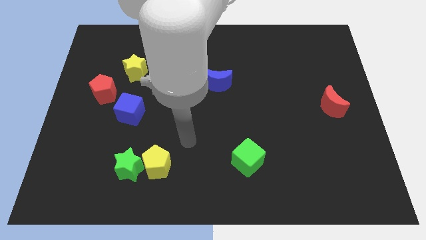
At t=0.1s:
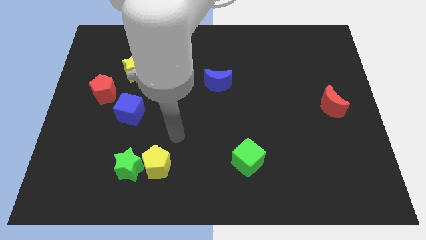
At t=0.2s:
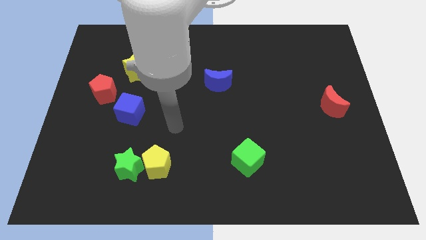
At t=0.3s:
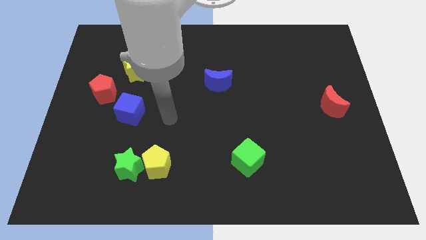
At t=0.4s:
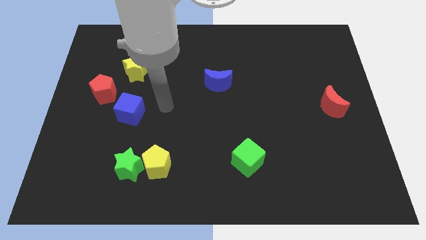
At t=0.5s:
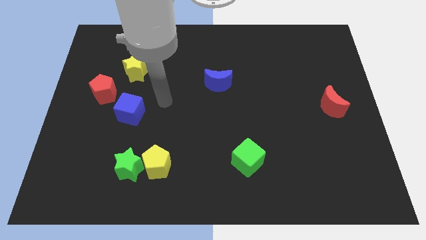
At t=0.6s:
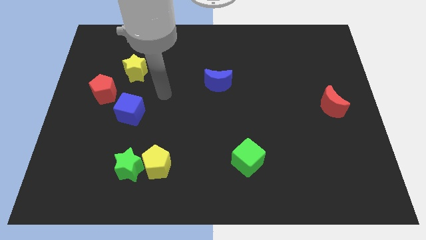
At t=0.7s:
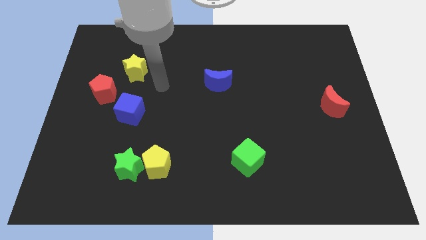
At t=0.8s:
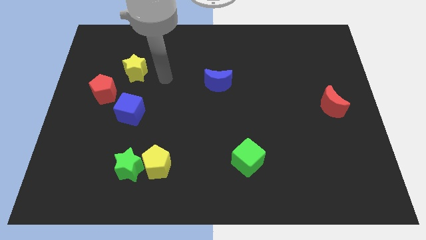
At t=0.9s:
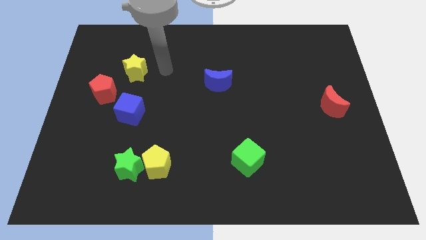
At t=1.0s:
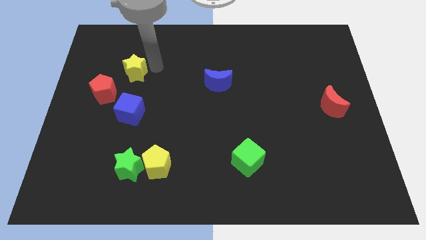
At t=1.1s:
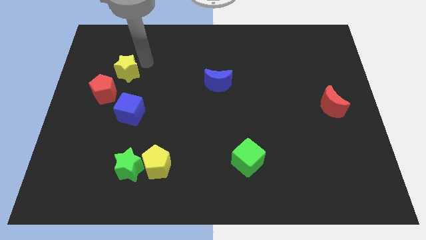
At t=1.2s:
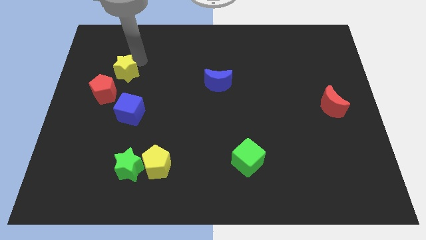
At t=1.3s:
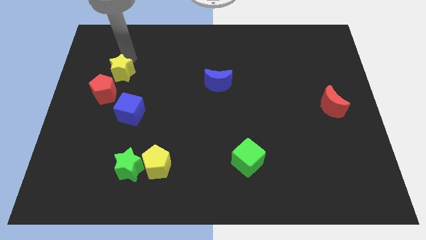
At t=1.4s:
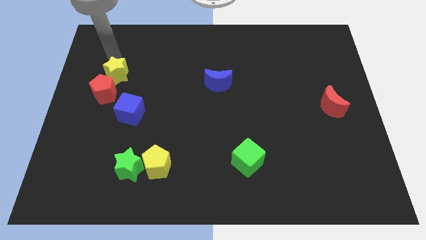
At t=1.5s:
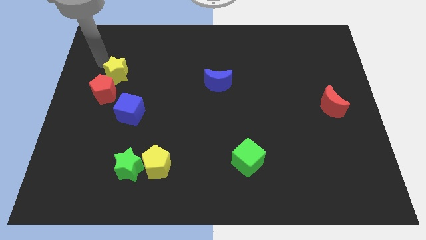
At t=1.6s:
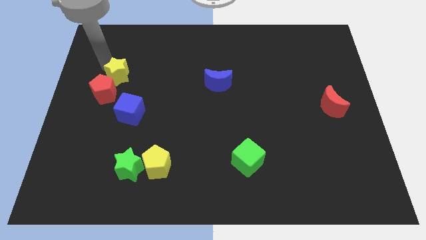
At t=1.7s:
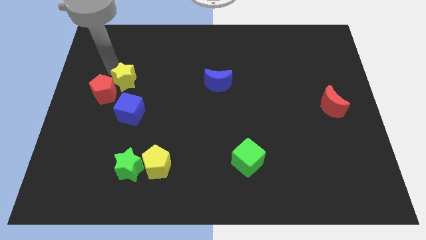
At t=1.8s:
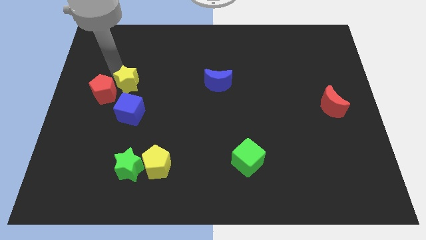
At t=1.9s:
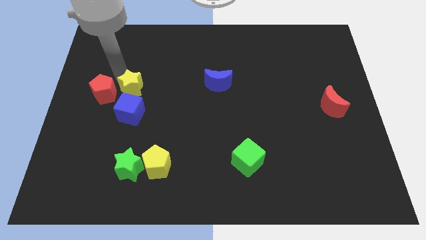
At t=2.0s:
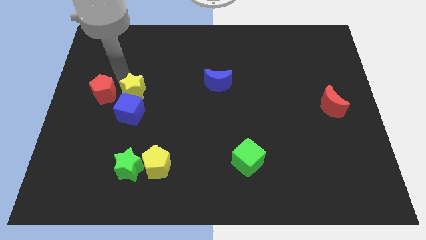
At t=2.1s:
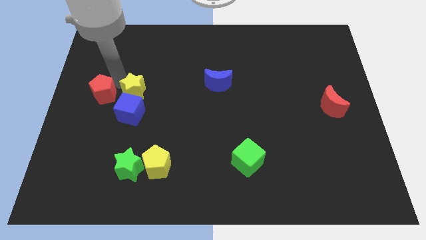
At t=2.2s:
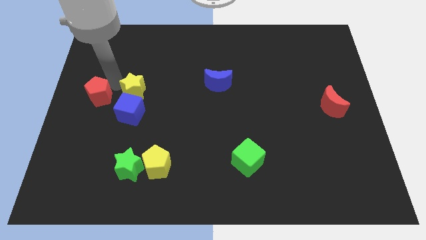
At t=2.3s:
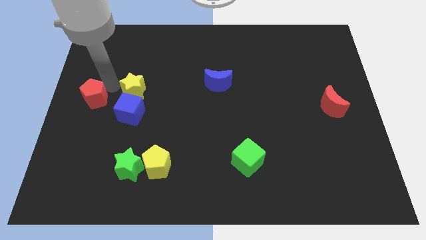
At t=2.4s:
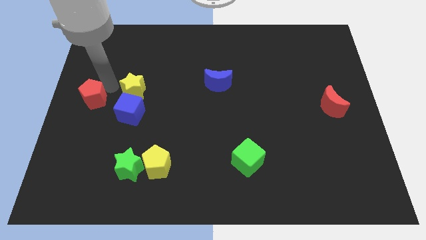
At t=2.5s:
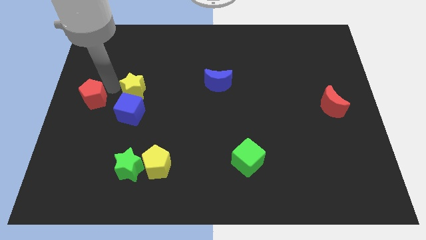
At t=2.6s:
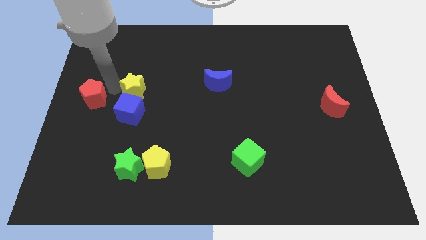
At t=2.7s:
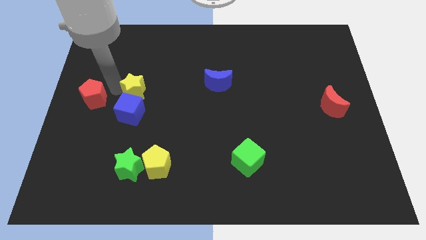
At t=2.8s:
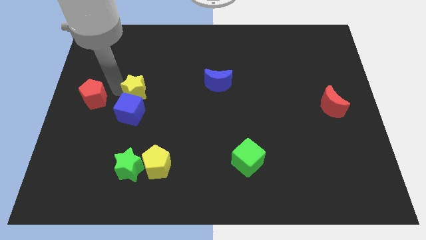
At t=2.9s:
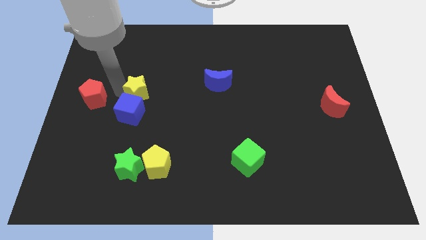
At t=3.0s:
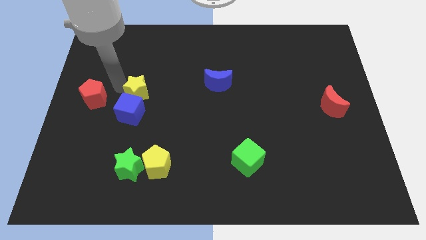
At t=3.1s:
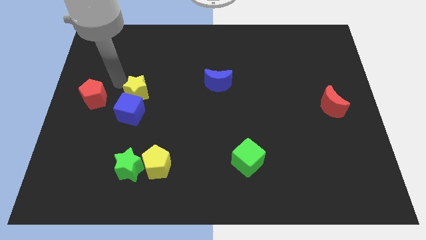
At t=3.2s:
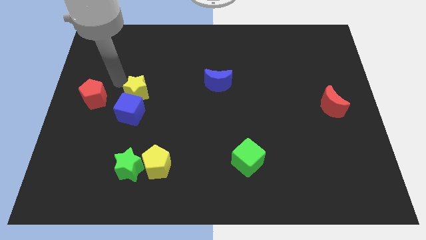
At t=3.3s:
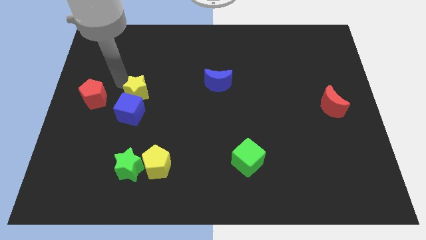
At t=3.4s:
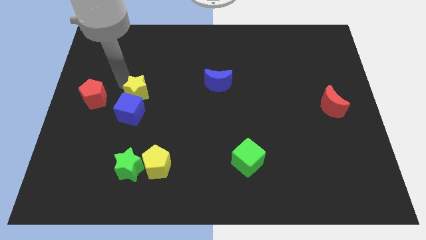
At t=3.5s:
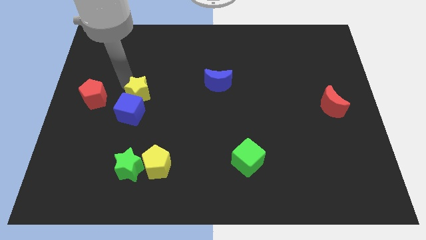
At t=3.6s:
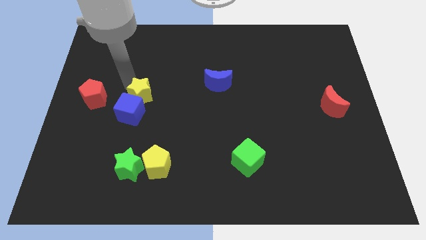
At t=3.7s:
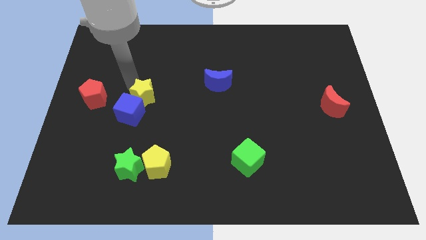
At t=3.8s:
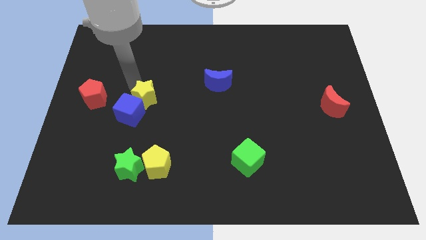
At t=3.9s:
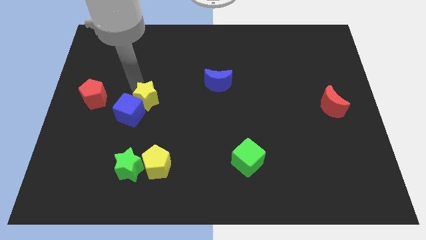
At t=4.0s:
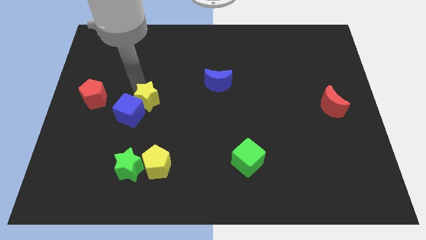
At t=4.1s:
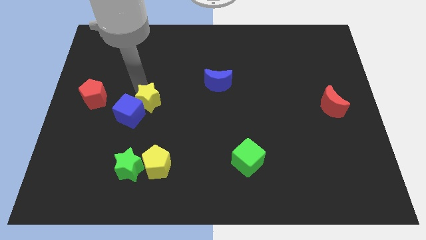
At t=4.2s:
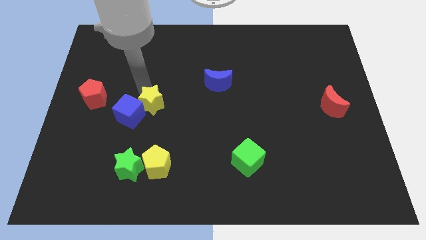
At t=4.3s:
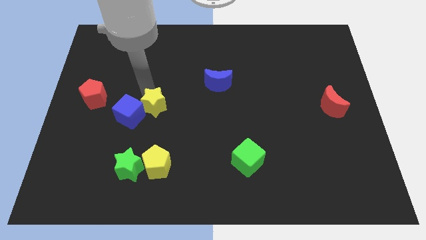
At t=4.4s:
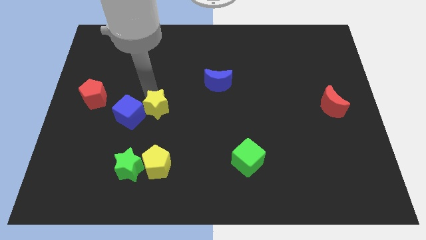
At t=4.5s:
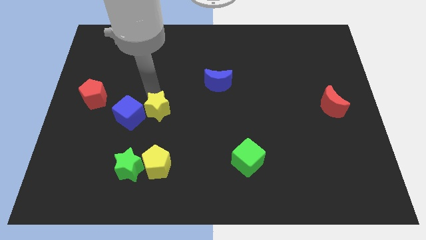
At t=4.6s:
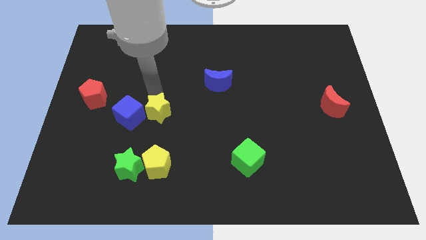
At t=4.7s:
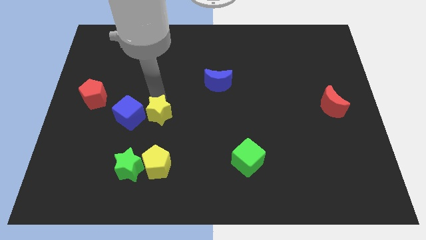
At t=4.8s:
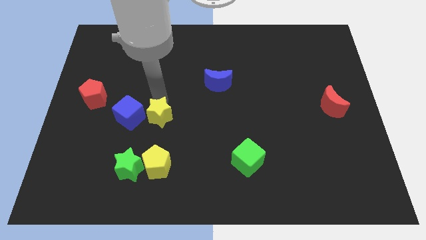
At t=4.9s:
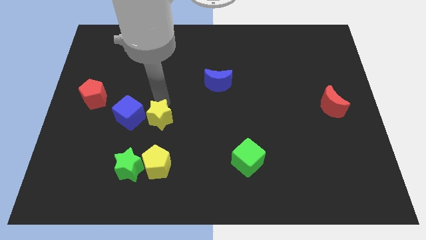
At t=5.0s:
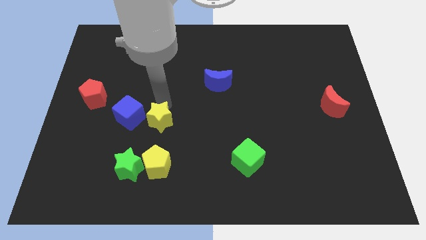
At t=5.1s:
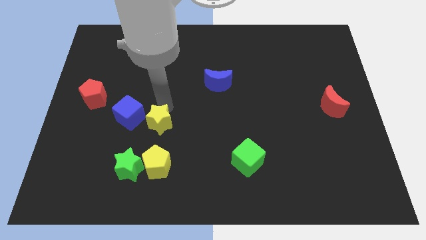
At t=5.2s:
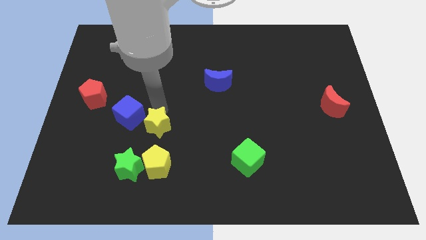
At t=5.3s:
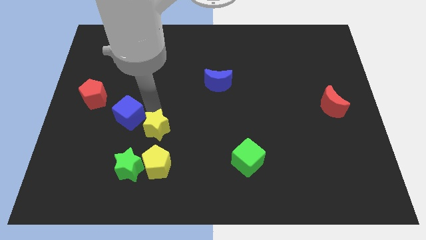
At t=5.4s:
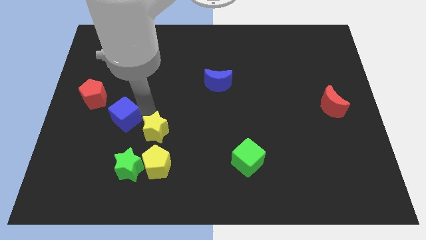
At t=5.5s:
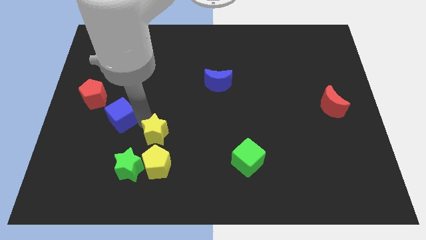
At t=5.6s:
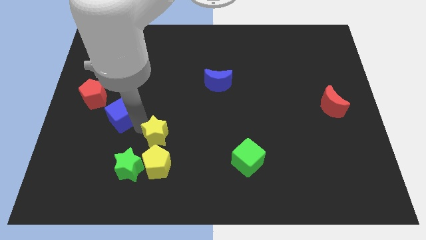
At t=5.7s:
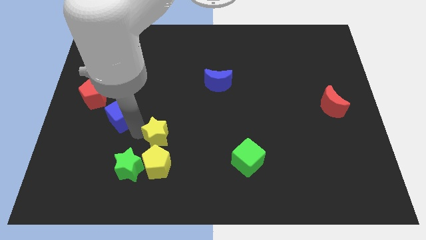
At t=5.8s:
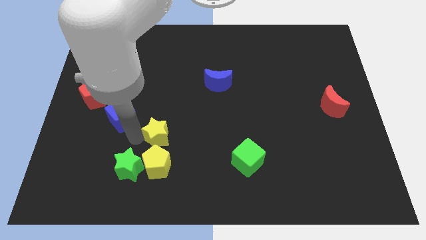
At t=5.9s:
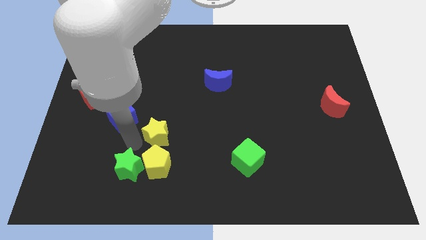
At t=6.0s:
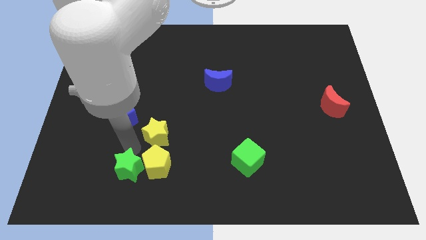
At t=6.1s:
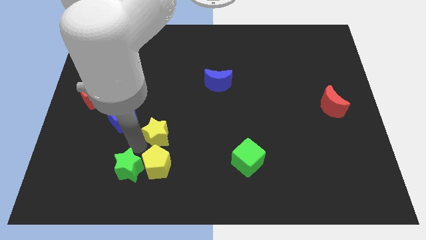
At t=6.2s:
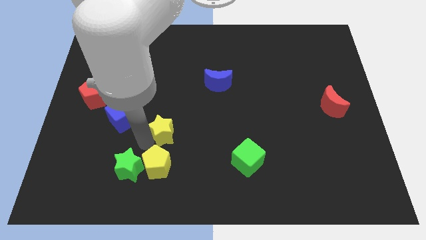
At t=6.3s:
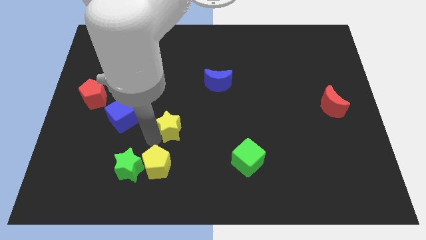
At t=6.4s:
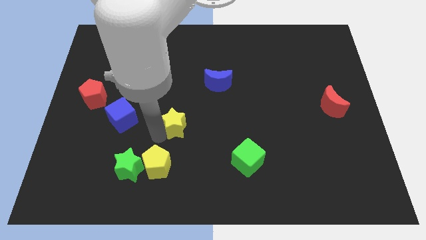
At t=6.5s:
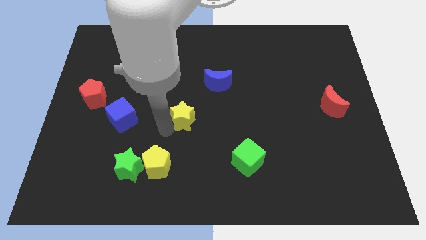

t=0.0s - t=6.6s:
slide the yellow star down and then right

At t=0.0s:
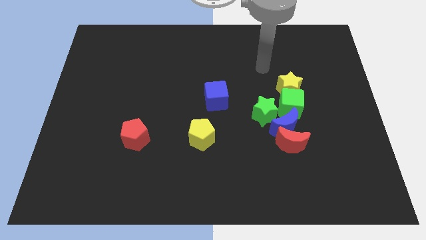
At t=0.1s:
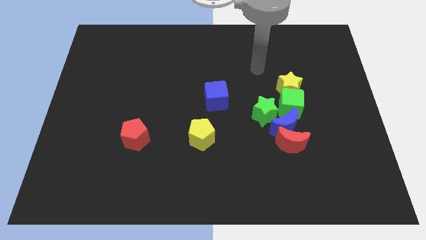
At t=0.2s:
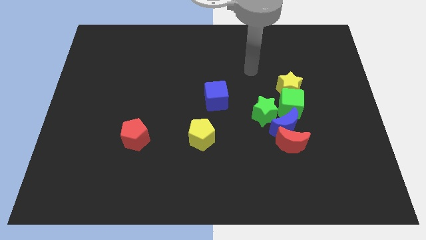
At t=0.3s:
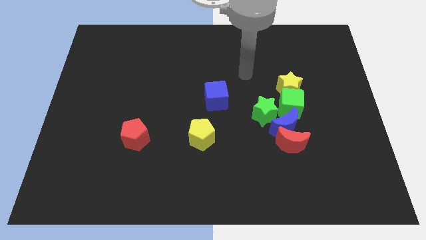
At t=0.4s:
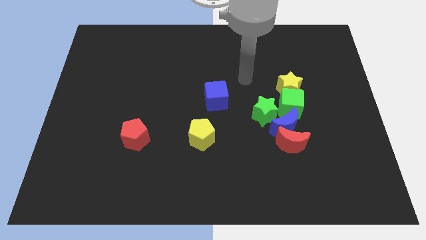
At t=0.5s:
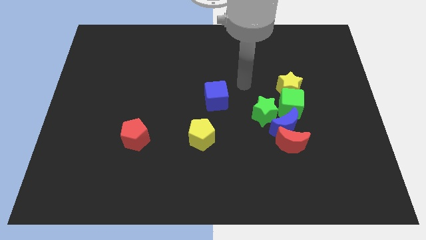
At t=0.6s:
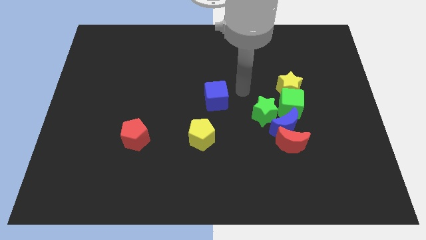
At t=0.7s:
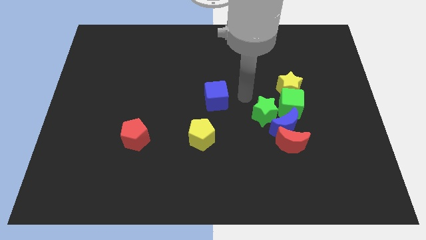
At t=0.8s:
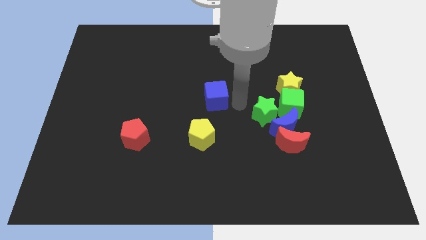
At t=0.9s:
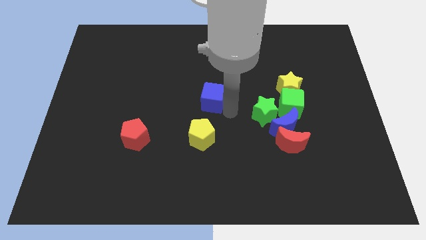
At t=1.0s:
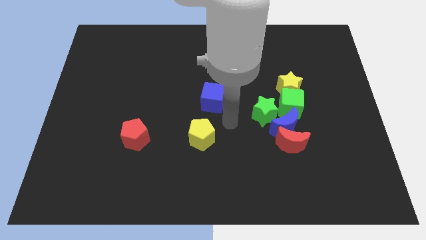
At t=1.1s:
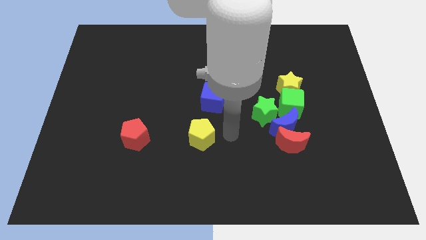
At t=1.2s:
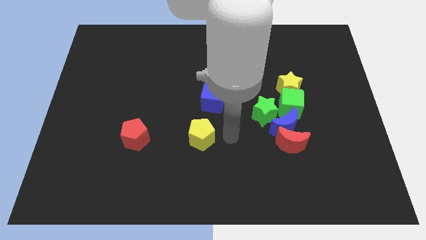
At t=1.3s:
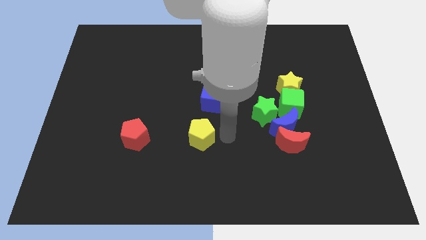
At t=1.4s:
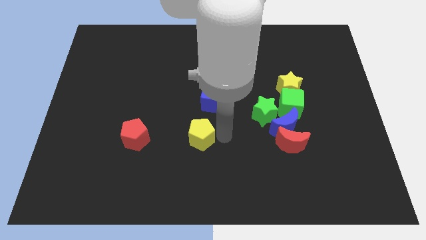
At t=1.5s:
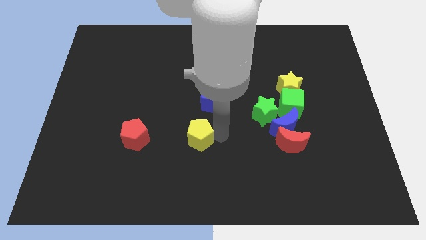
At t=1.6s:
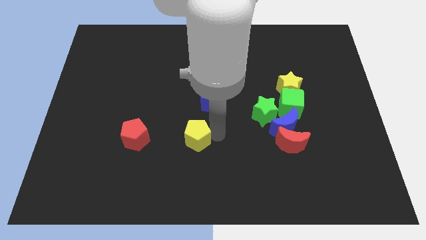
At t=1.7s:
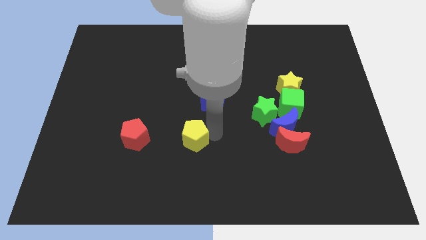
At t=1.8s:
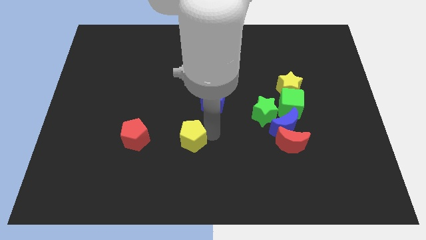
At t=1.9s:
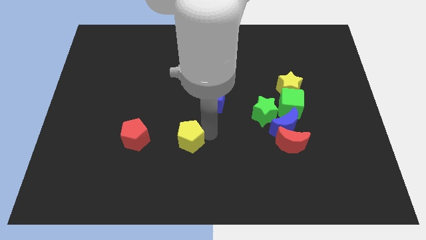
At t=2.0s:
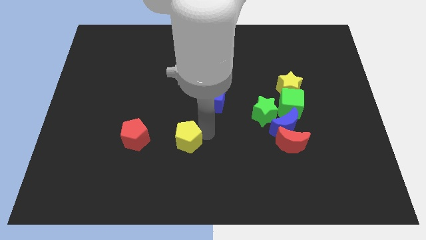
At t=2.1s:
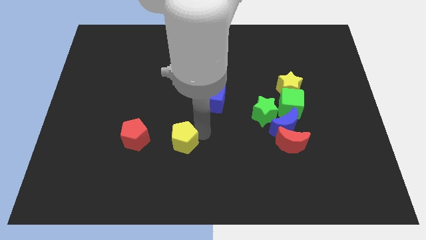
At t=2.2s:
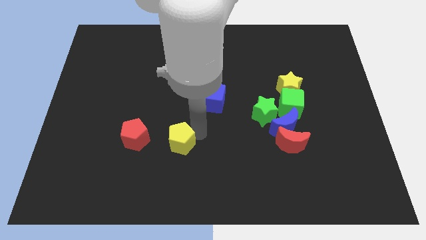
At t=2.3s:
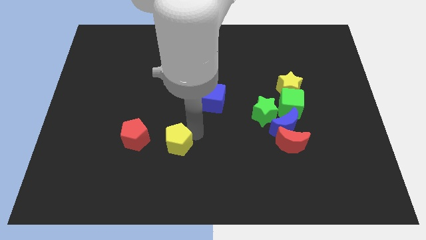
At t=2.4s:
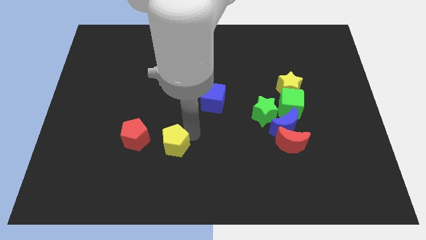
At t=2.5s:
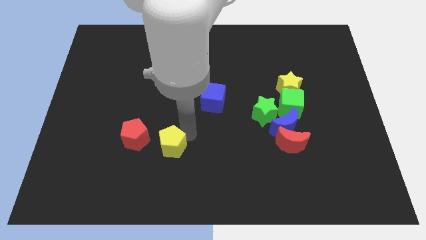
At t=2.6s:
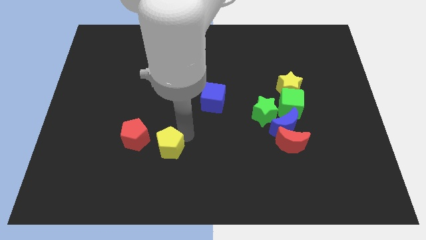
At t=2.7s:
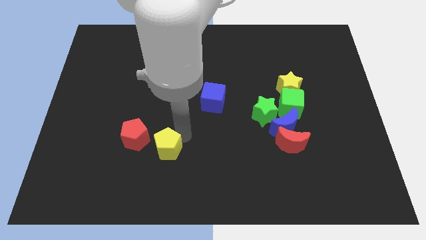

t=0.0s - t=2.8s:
slightly slide the yellow pentagon left
